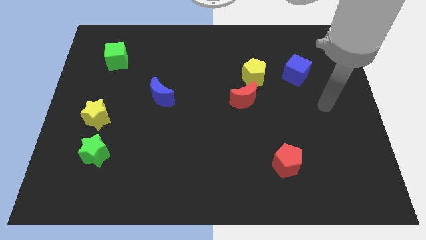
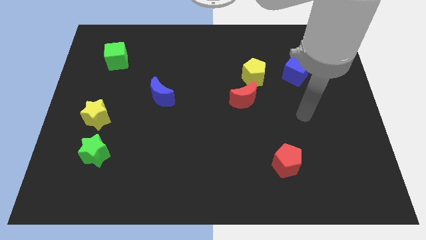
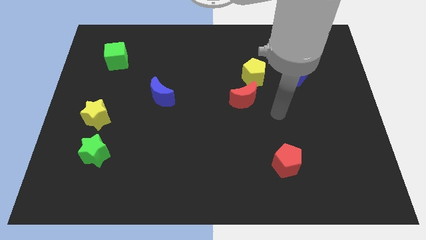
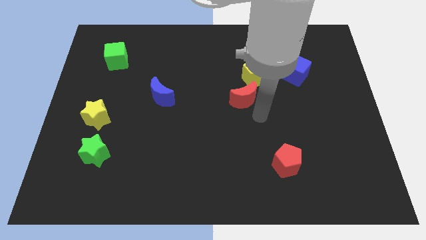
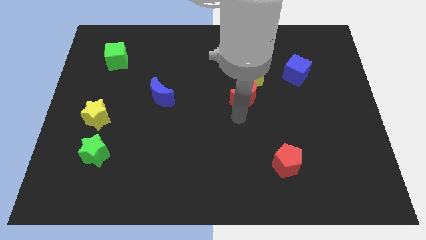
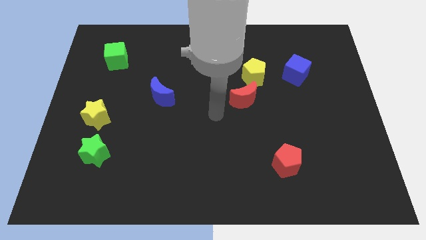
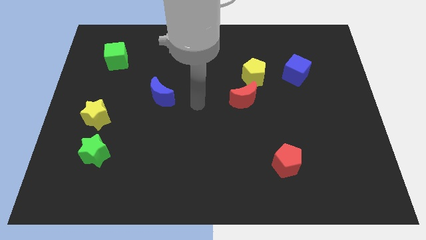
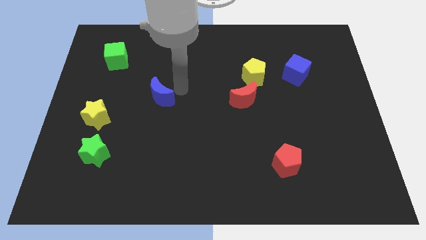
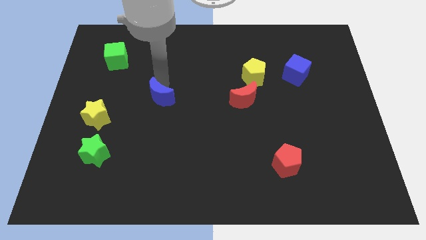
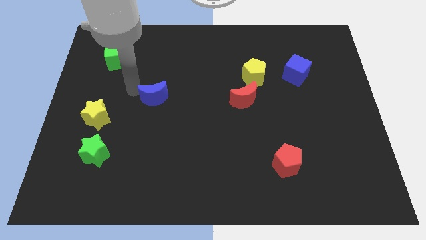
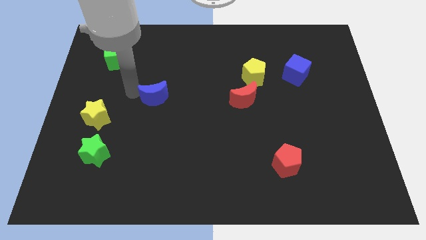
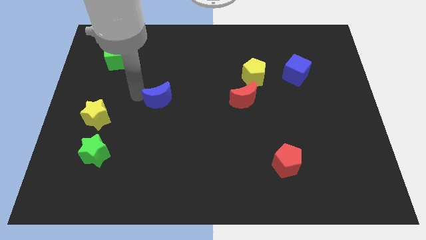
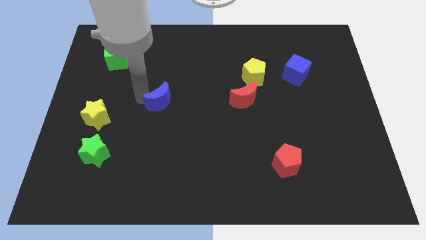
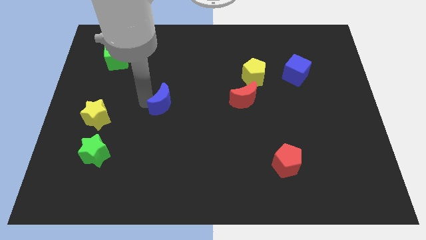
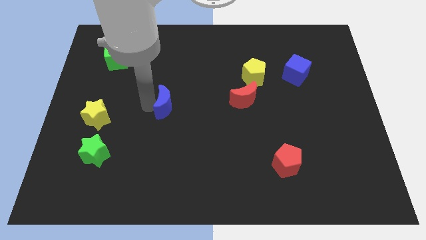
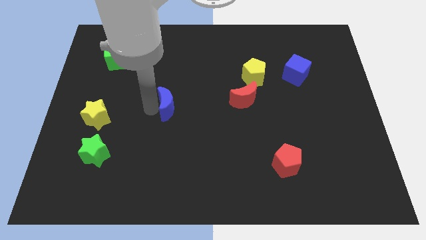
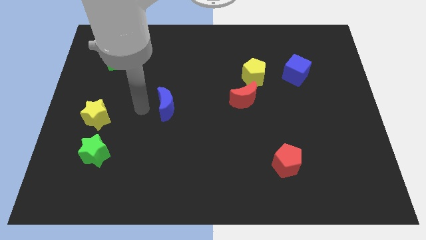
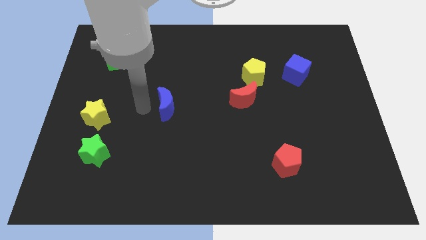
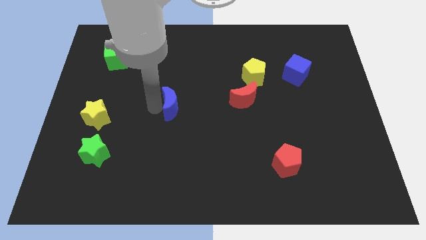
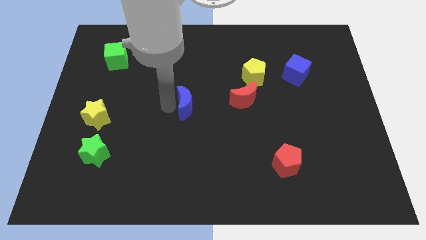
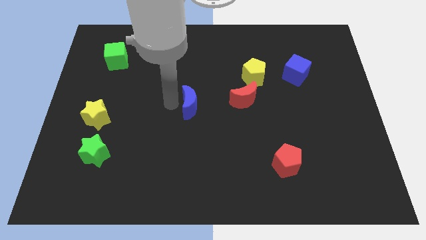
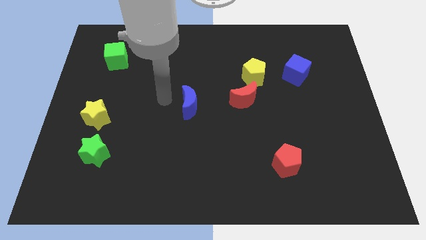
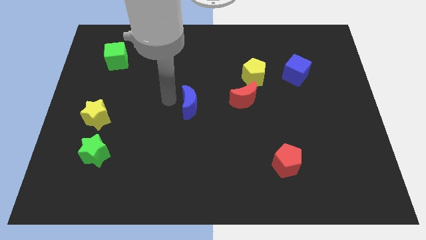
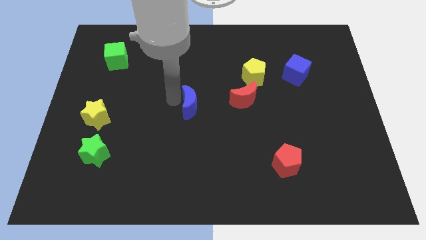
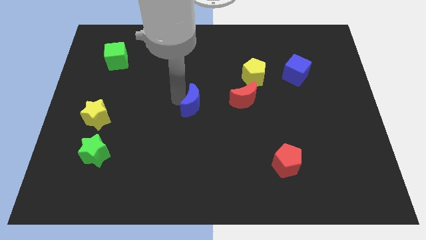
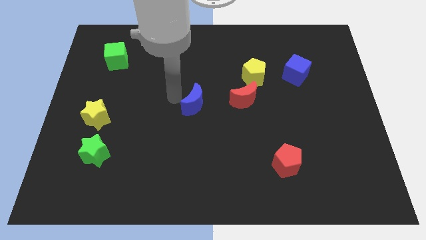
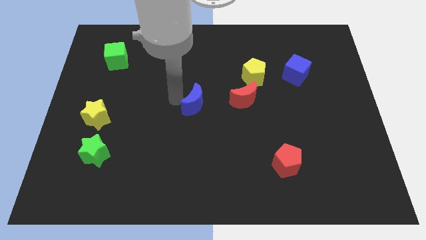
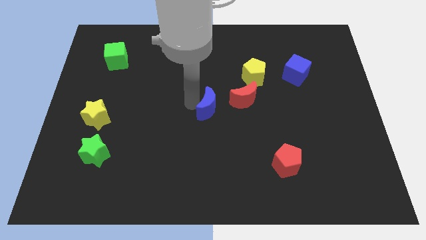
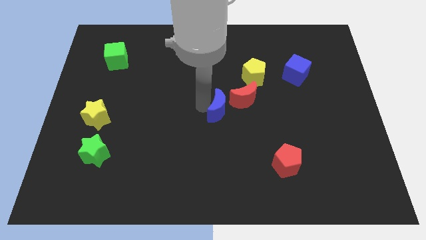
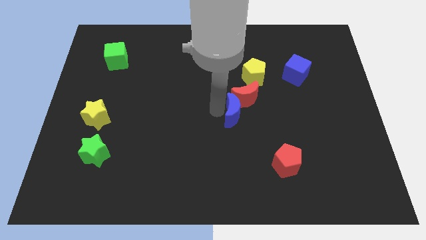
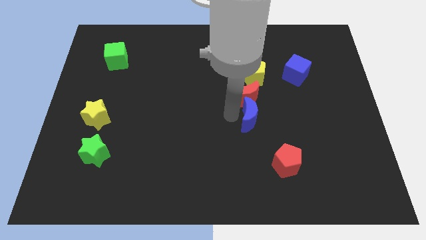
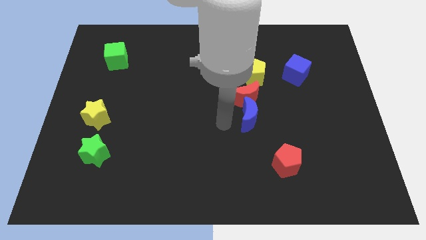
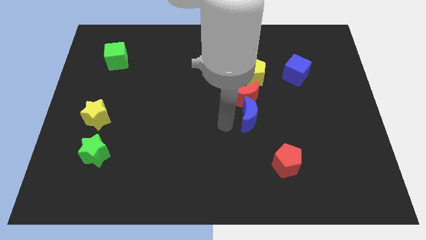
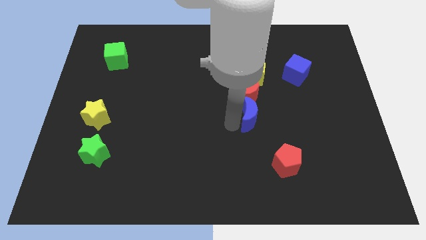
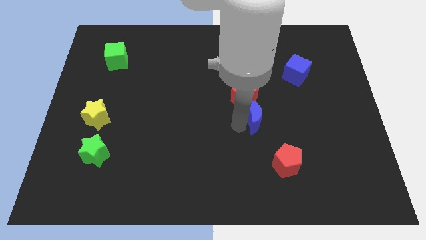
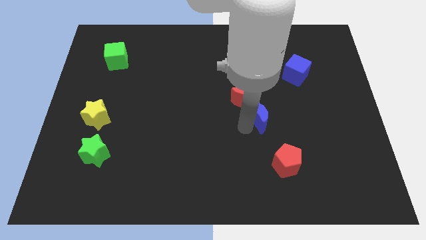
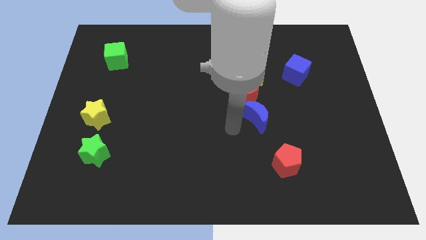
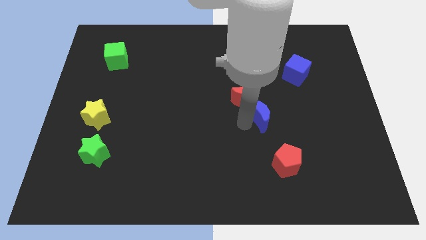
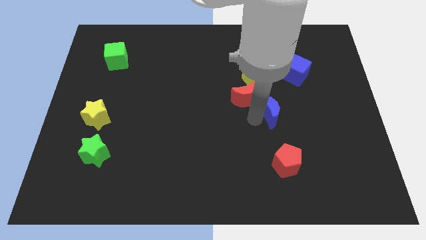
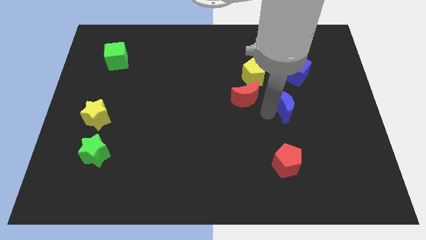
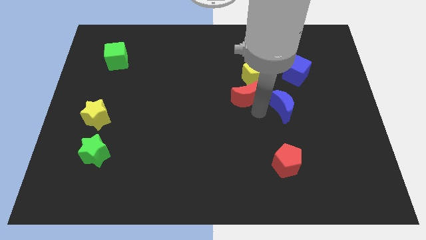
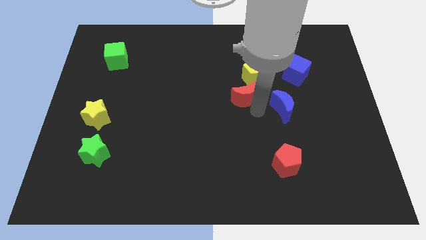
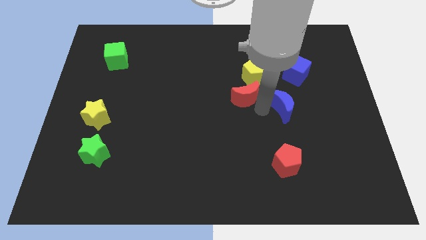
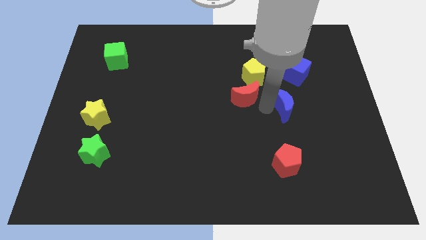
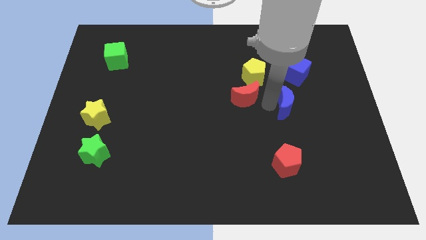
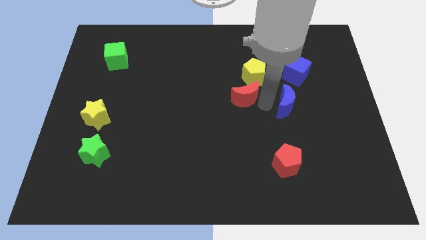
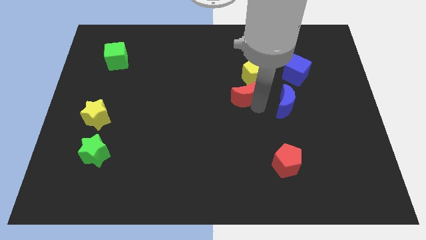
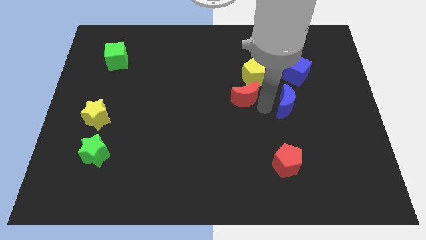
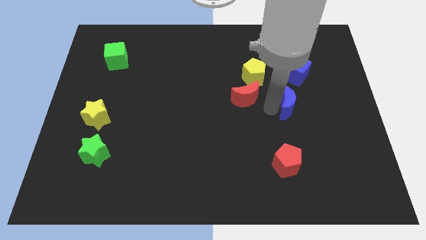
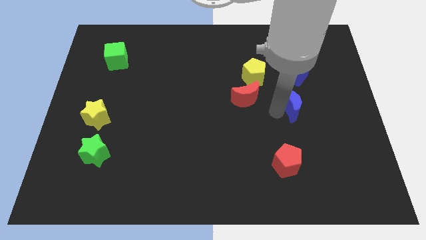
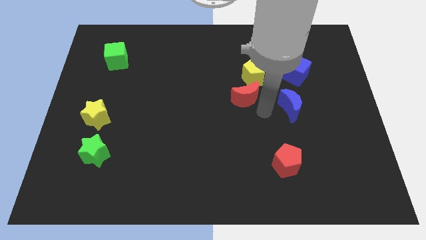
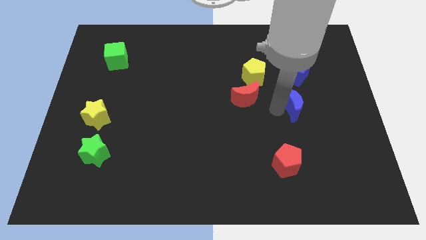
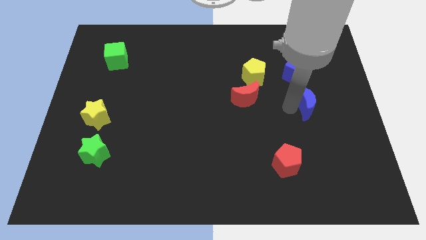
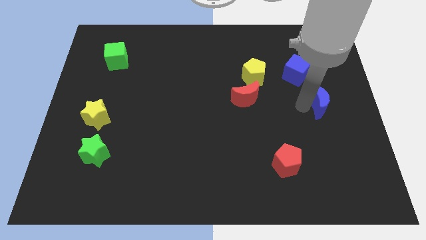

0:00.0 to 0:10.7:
move the blue moon to the center right
